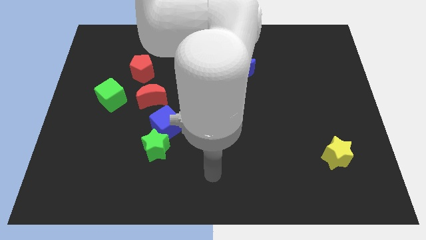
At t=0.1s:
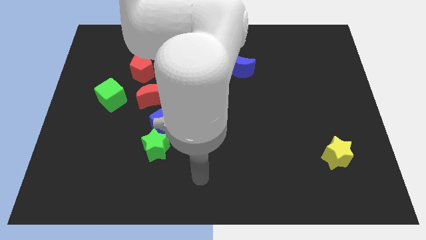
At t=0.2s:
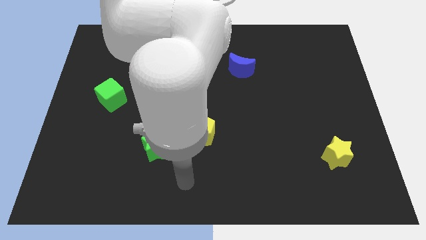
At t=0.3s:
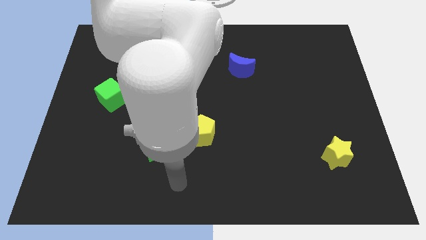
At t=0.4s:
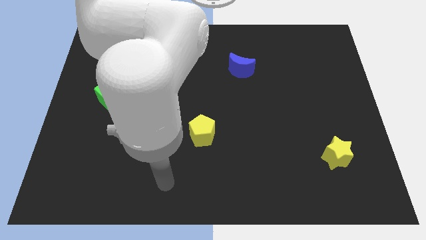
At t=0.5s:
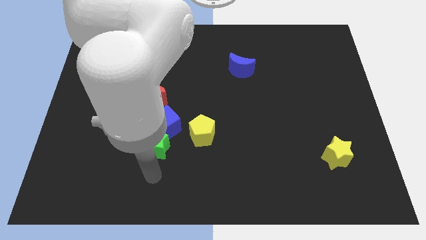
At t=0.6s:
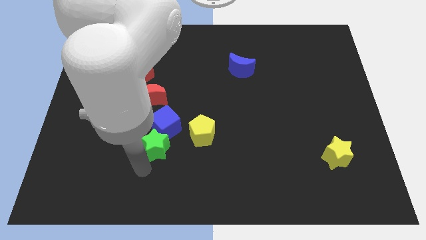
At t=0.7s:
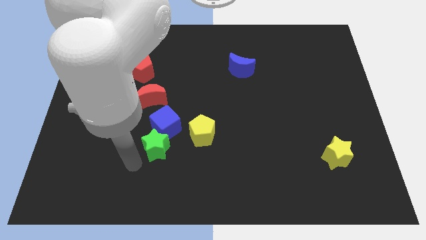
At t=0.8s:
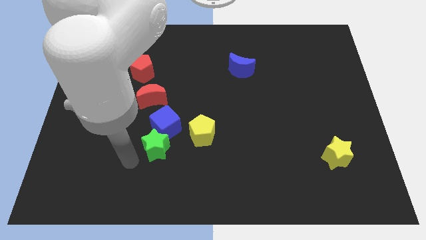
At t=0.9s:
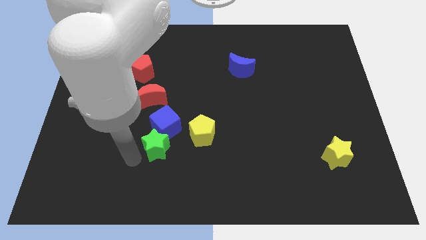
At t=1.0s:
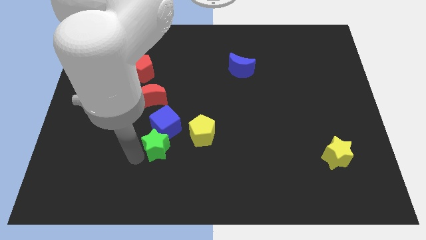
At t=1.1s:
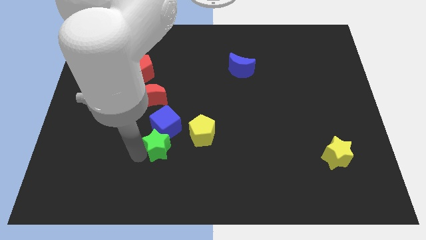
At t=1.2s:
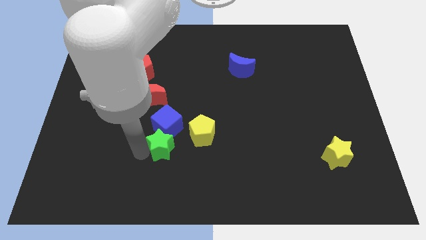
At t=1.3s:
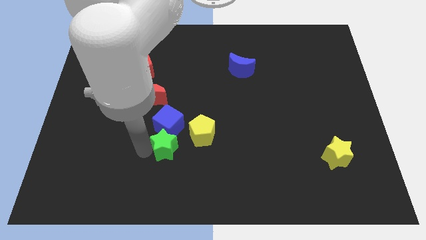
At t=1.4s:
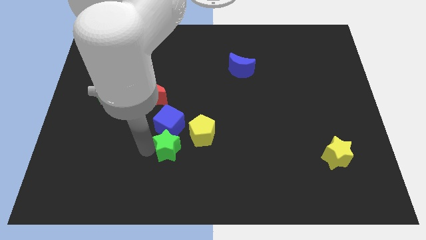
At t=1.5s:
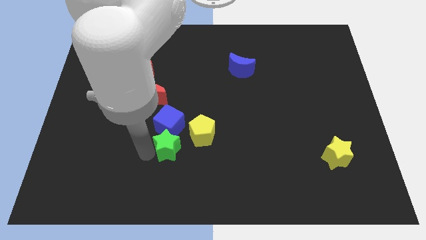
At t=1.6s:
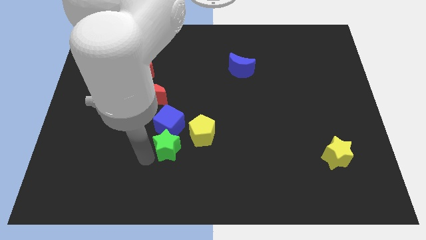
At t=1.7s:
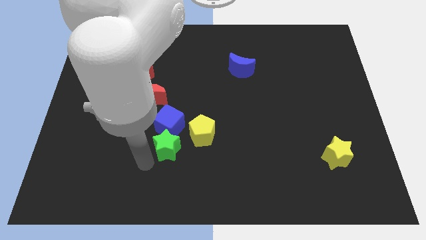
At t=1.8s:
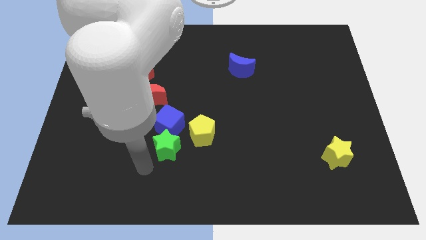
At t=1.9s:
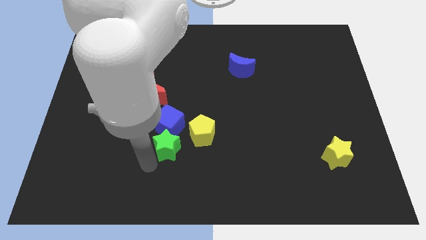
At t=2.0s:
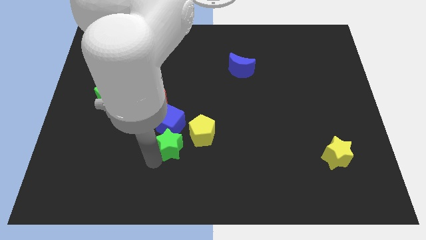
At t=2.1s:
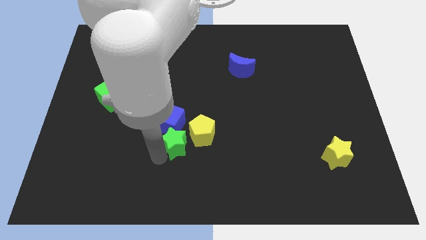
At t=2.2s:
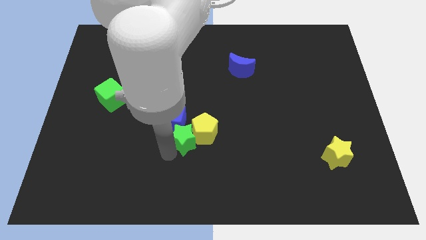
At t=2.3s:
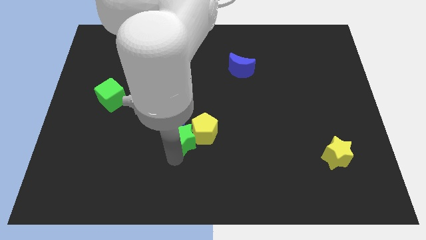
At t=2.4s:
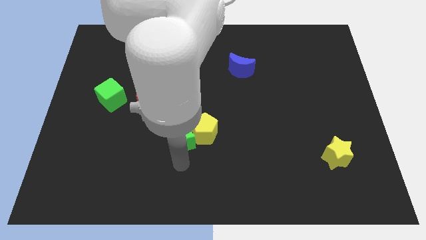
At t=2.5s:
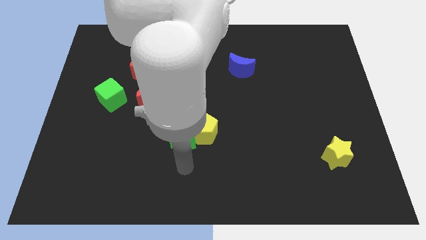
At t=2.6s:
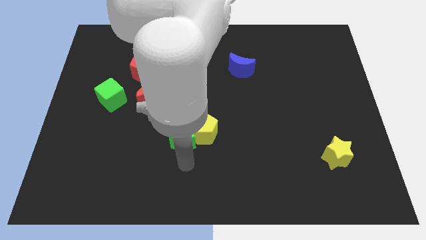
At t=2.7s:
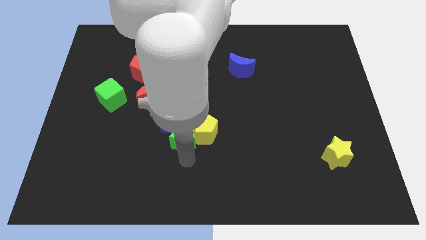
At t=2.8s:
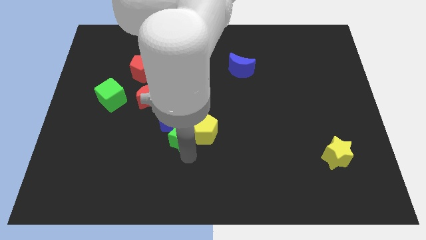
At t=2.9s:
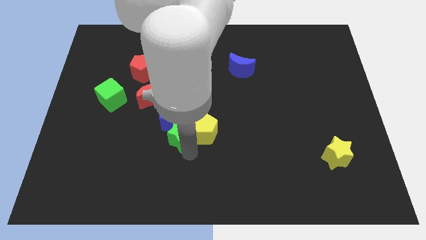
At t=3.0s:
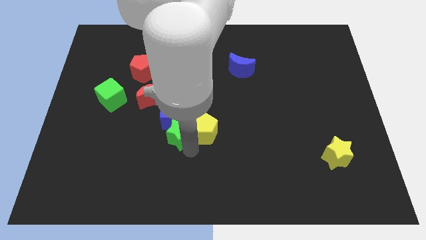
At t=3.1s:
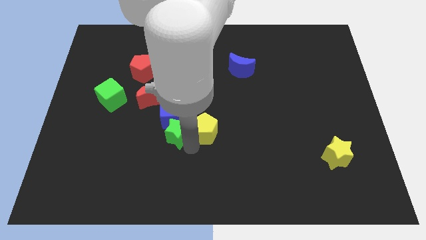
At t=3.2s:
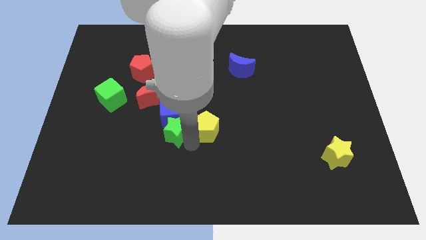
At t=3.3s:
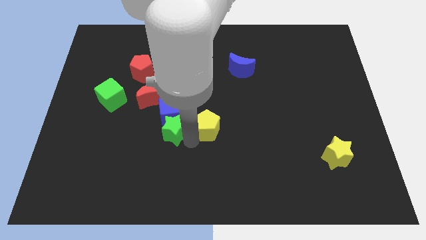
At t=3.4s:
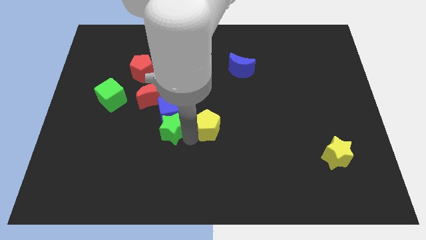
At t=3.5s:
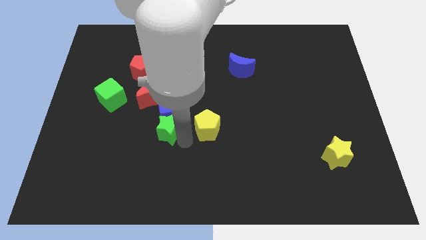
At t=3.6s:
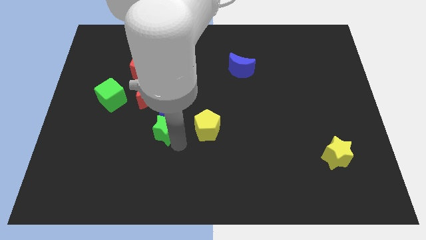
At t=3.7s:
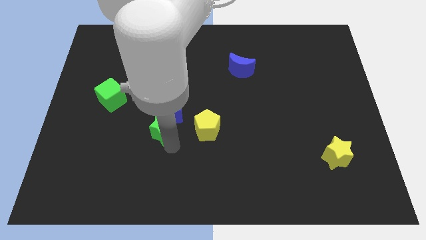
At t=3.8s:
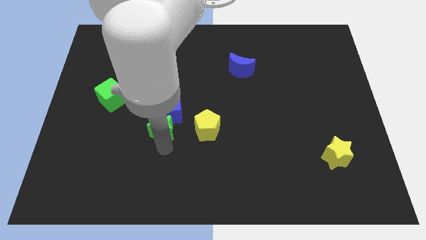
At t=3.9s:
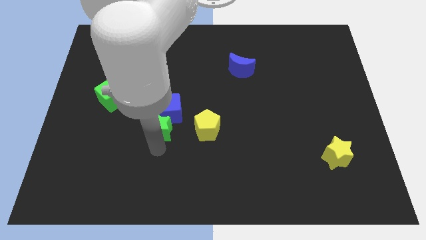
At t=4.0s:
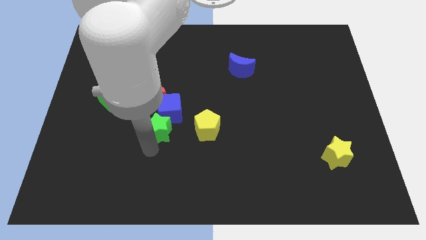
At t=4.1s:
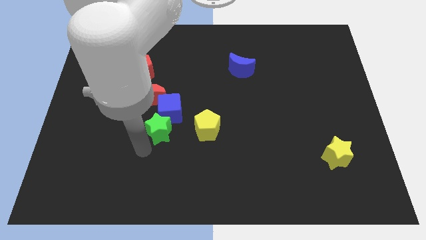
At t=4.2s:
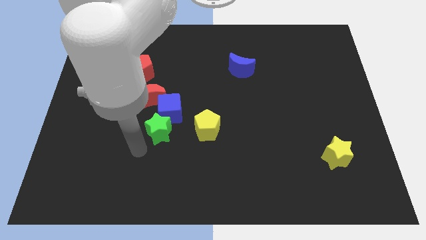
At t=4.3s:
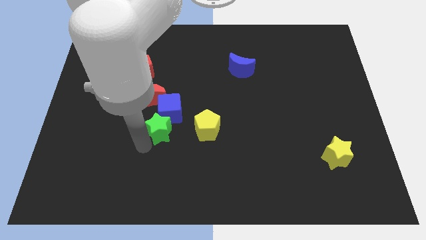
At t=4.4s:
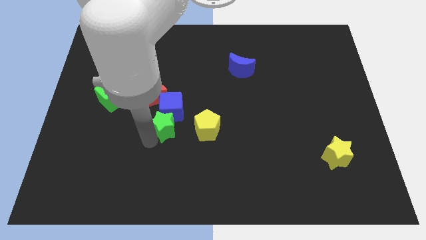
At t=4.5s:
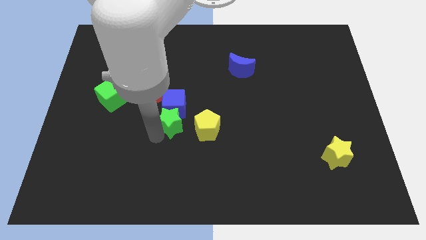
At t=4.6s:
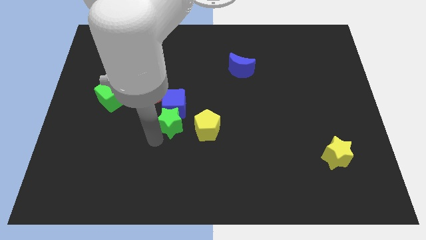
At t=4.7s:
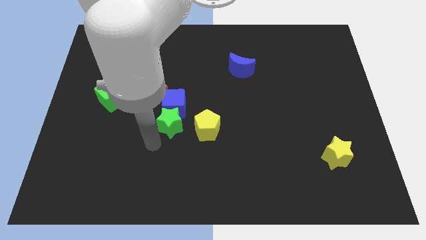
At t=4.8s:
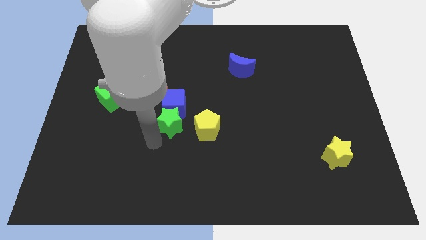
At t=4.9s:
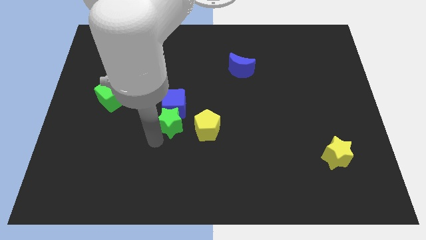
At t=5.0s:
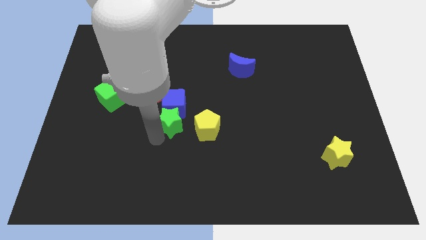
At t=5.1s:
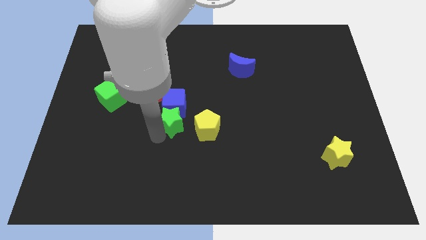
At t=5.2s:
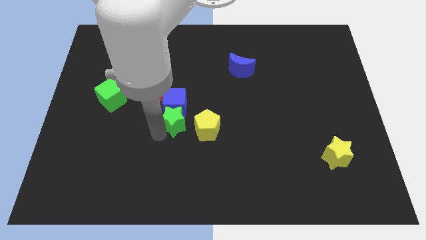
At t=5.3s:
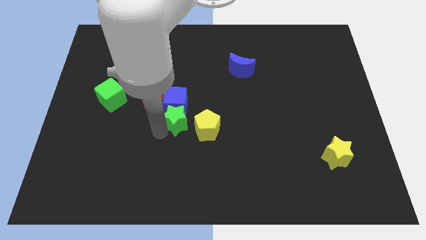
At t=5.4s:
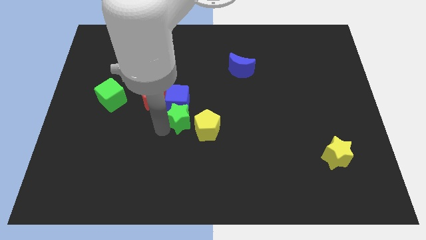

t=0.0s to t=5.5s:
move the green star upwards somewhat

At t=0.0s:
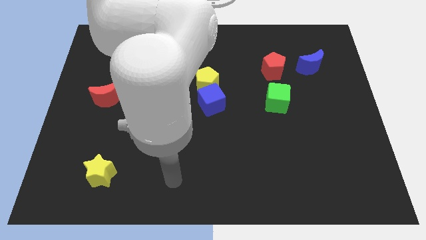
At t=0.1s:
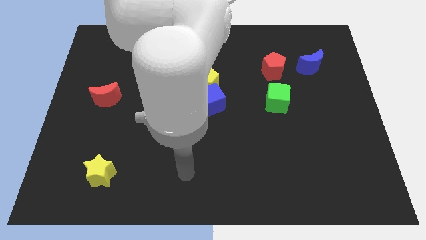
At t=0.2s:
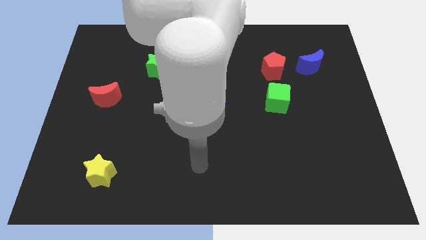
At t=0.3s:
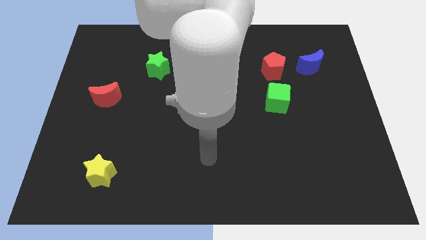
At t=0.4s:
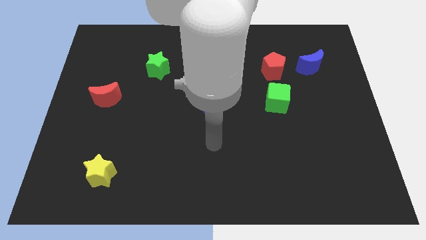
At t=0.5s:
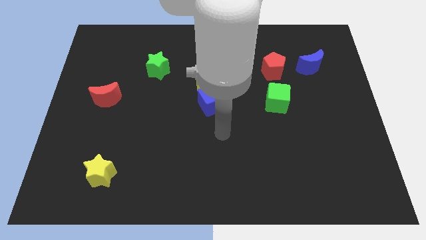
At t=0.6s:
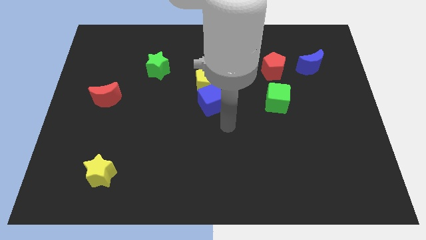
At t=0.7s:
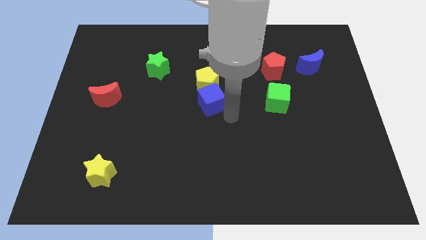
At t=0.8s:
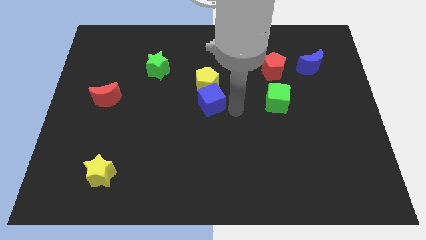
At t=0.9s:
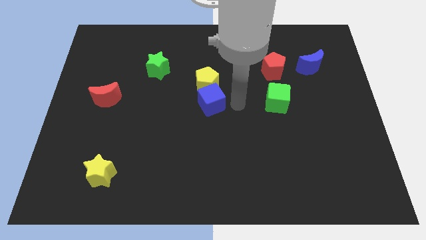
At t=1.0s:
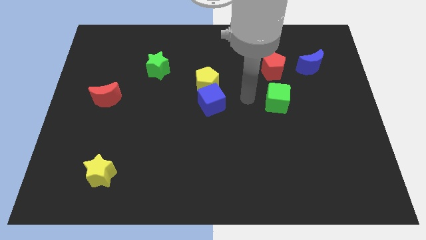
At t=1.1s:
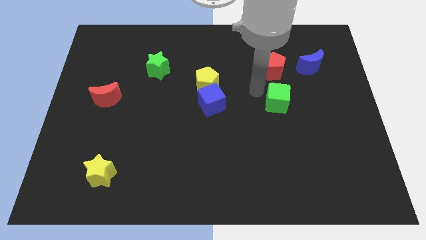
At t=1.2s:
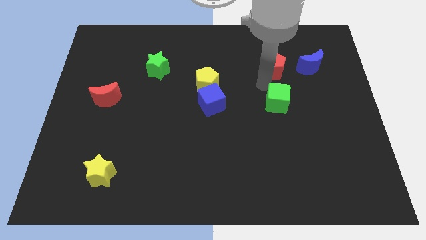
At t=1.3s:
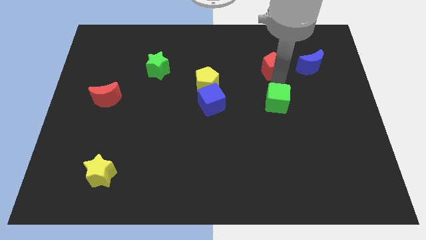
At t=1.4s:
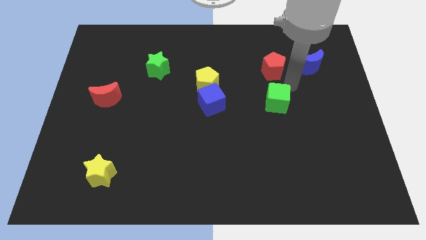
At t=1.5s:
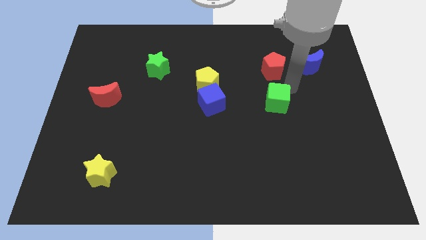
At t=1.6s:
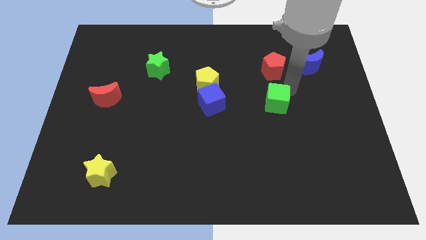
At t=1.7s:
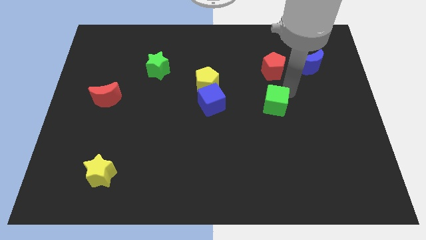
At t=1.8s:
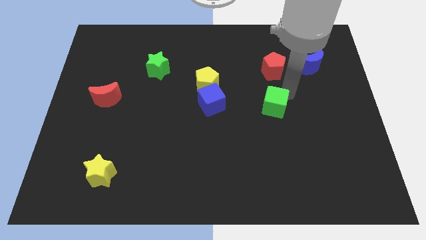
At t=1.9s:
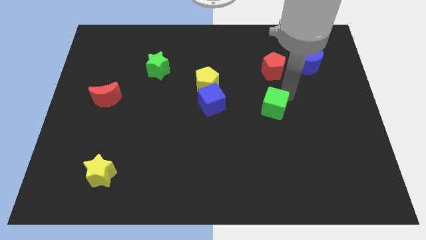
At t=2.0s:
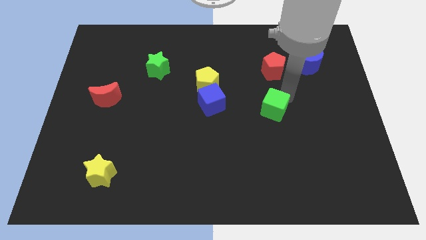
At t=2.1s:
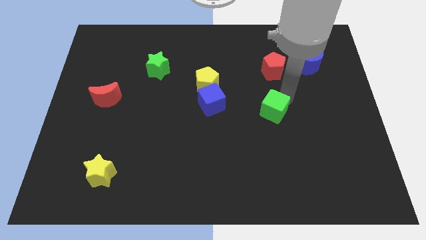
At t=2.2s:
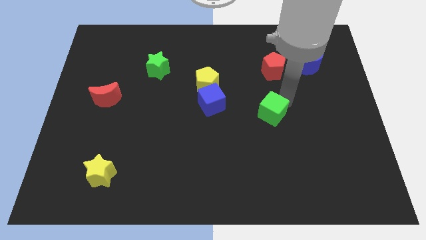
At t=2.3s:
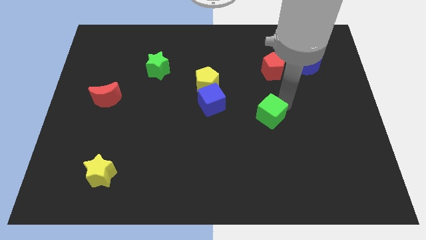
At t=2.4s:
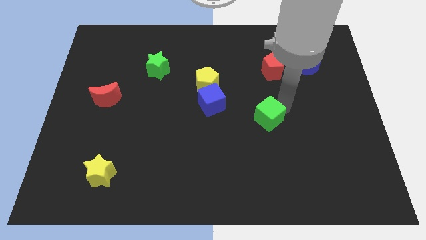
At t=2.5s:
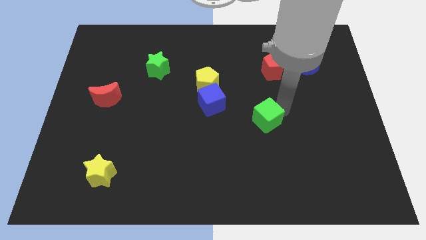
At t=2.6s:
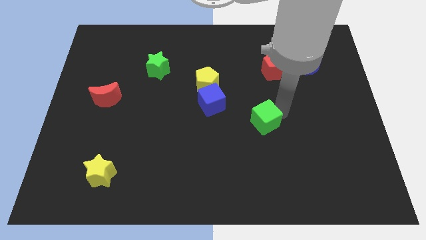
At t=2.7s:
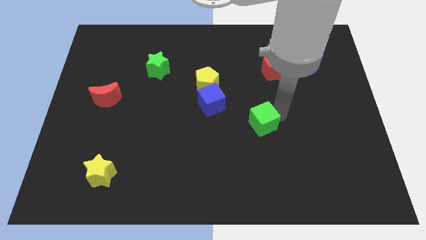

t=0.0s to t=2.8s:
slightly push the green cube downwards and left diagonally
